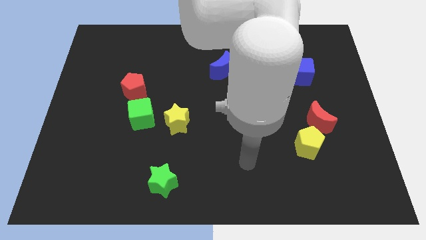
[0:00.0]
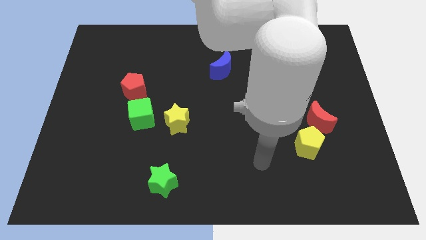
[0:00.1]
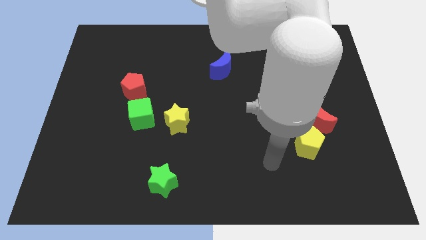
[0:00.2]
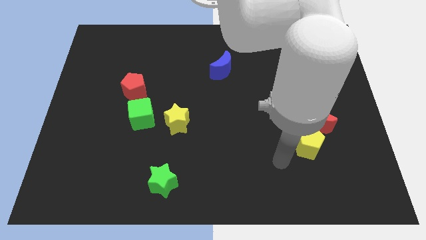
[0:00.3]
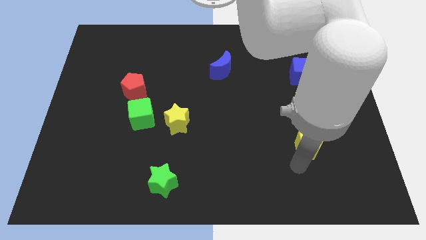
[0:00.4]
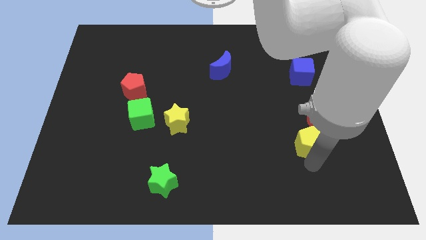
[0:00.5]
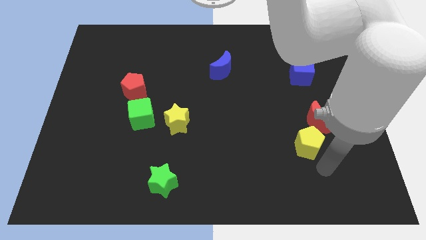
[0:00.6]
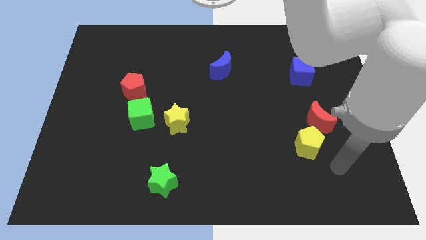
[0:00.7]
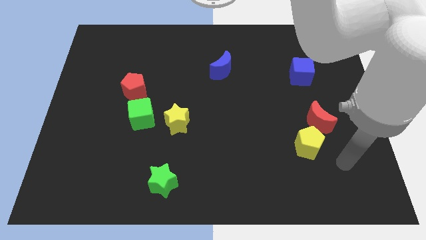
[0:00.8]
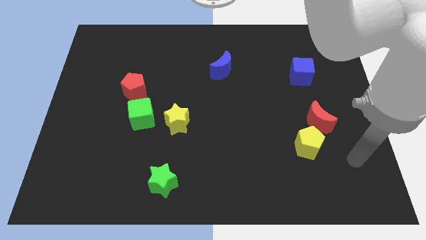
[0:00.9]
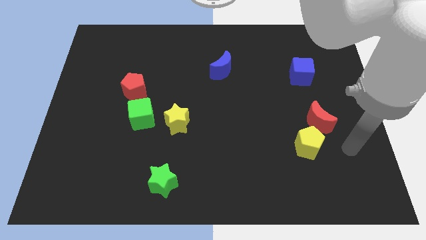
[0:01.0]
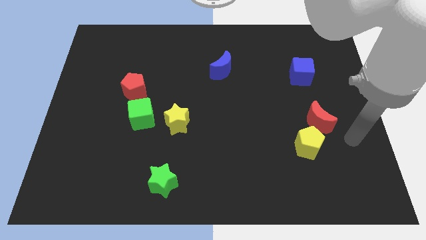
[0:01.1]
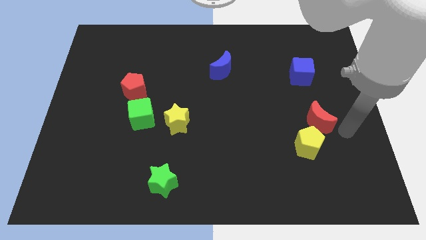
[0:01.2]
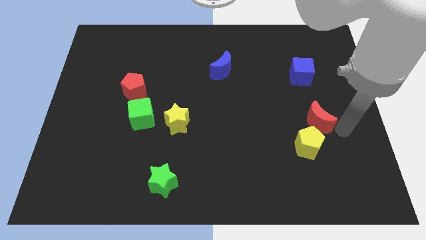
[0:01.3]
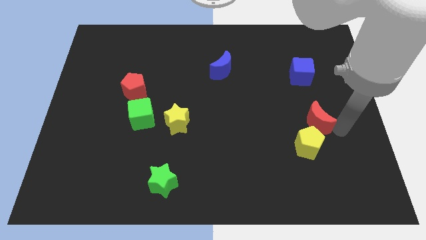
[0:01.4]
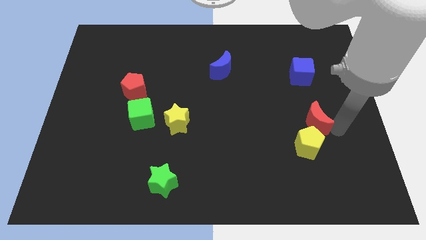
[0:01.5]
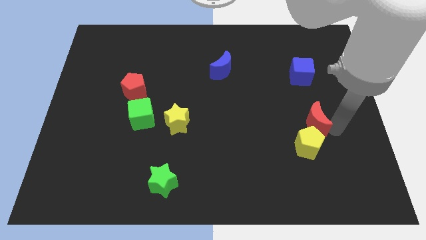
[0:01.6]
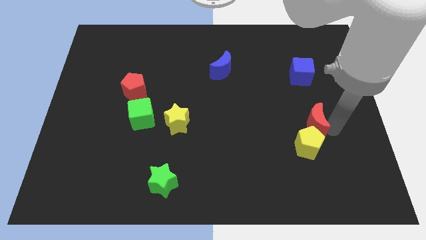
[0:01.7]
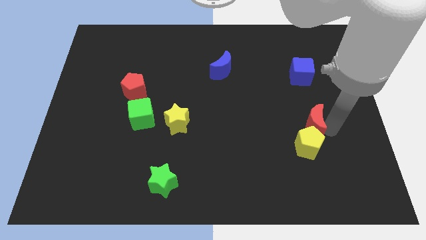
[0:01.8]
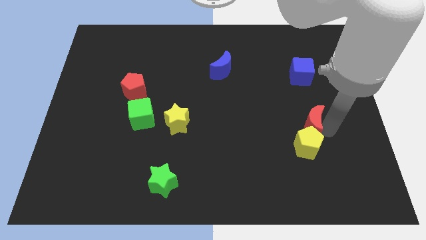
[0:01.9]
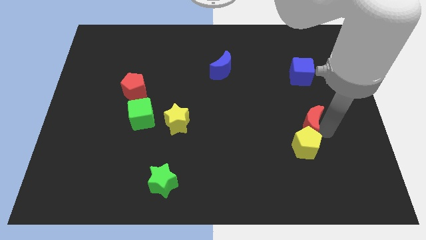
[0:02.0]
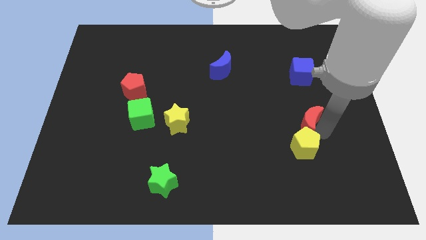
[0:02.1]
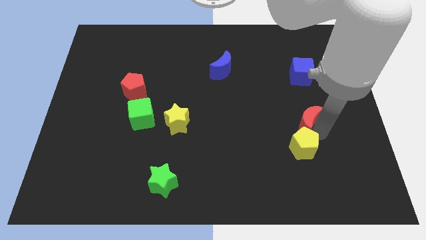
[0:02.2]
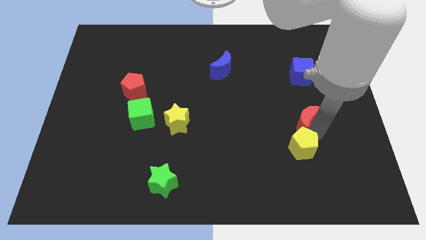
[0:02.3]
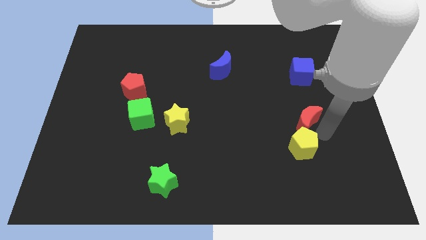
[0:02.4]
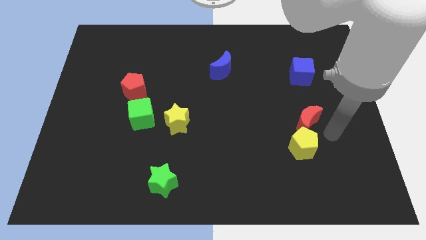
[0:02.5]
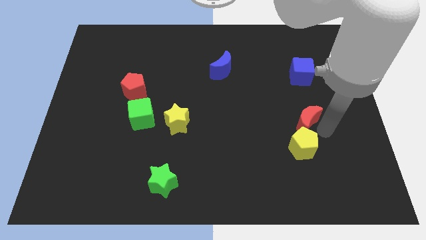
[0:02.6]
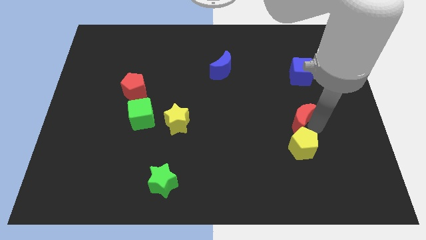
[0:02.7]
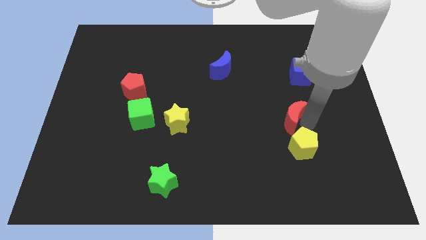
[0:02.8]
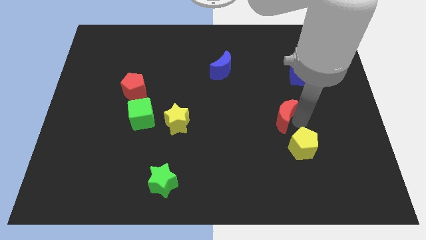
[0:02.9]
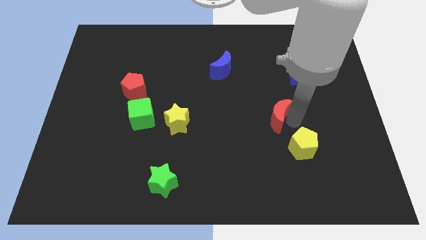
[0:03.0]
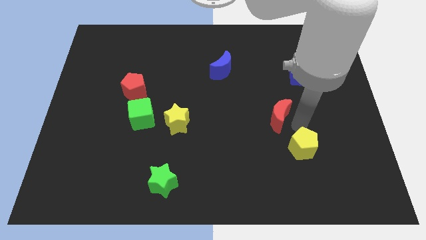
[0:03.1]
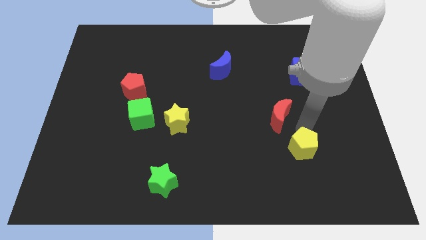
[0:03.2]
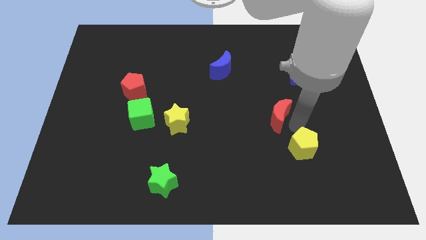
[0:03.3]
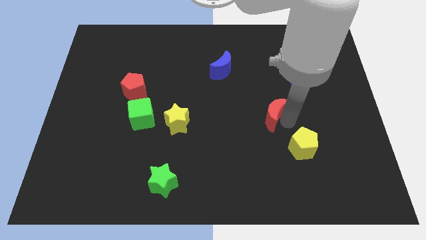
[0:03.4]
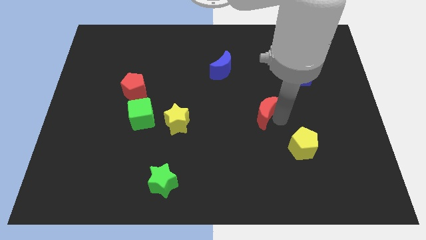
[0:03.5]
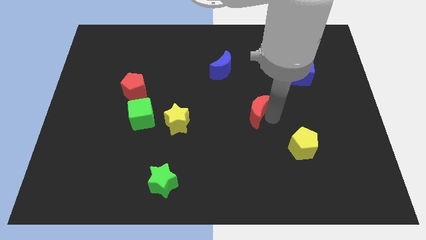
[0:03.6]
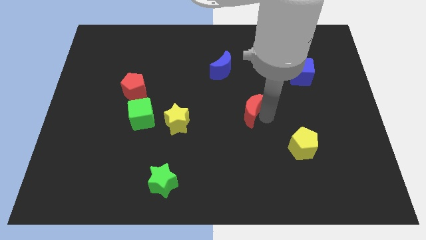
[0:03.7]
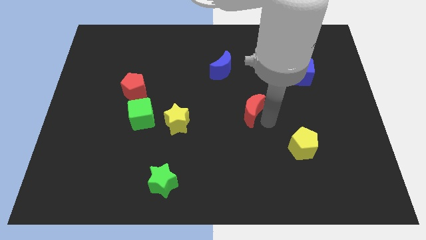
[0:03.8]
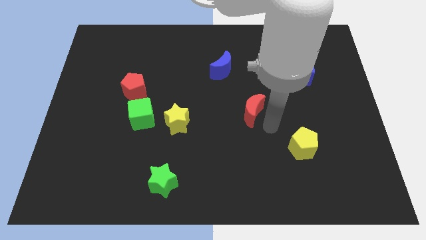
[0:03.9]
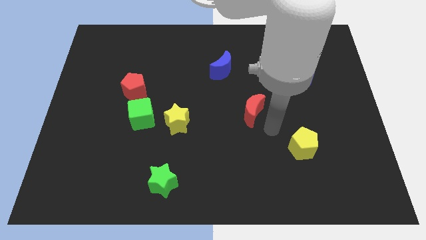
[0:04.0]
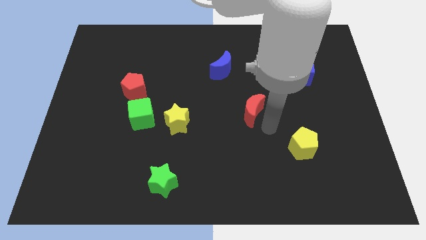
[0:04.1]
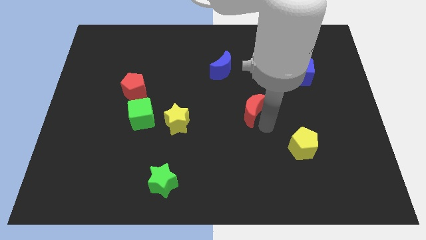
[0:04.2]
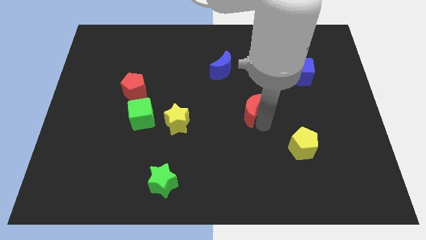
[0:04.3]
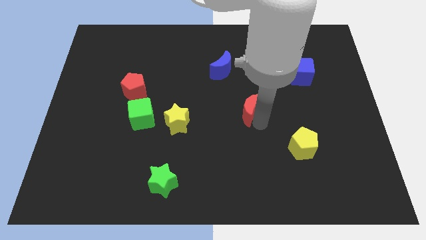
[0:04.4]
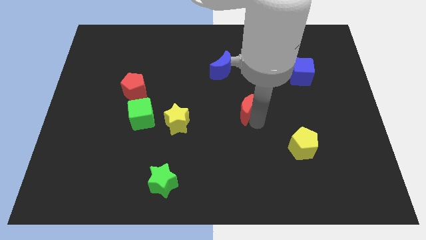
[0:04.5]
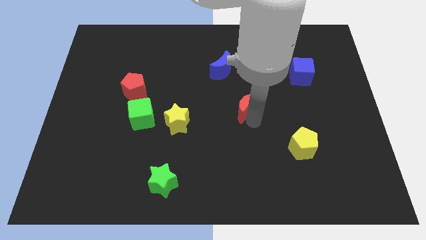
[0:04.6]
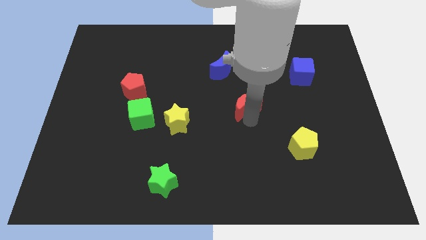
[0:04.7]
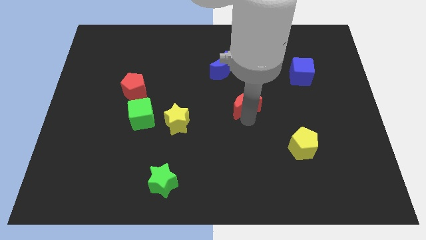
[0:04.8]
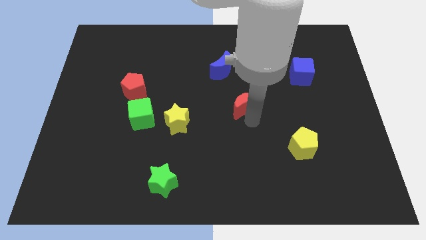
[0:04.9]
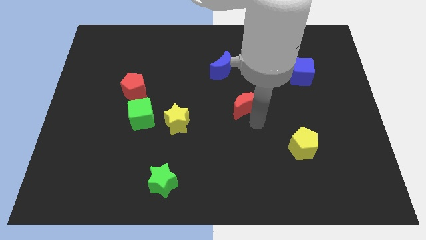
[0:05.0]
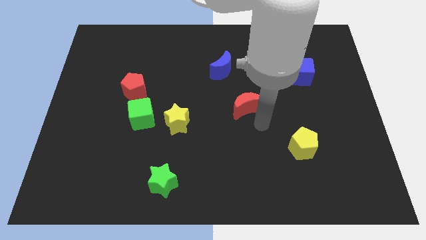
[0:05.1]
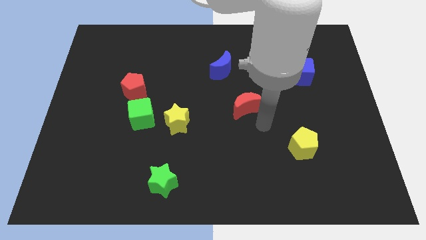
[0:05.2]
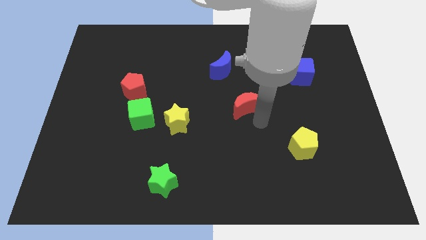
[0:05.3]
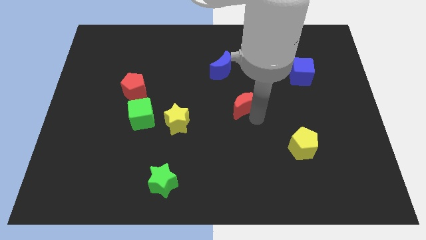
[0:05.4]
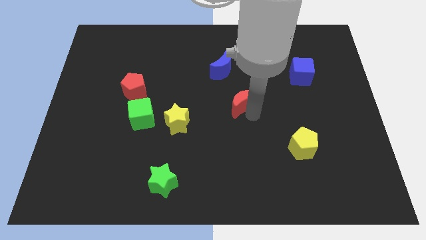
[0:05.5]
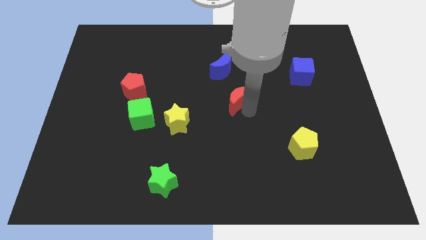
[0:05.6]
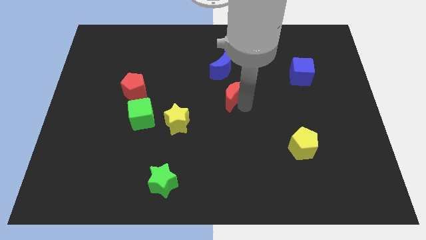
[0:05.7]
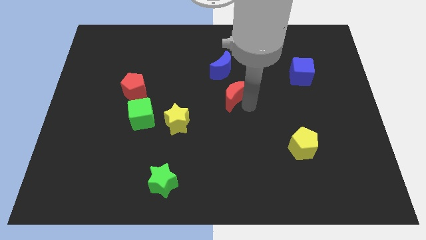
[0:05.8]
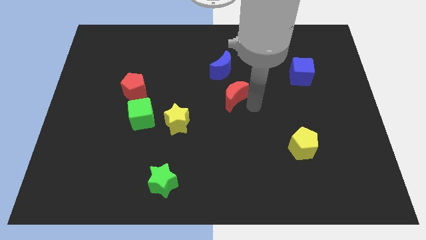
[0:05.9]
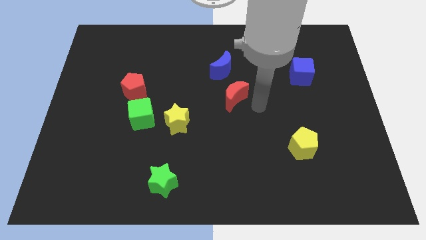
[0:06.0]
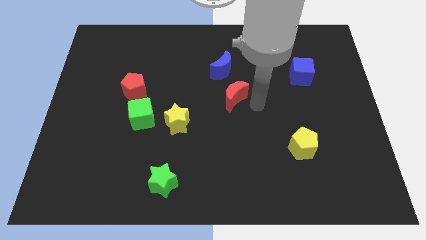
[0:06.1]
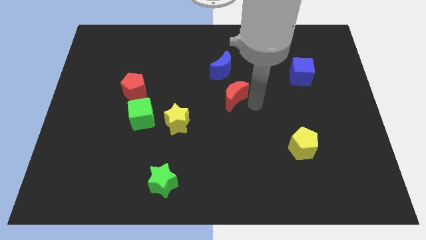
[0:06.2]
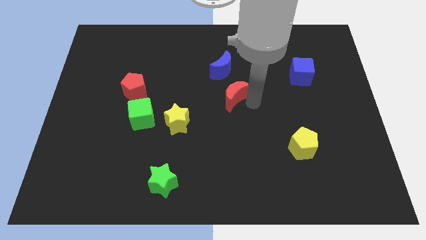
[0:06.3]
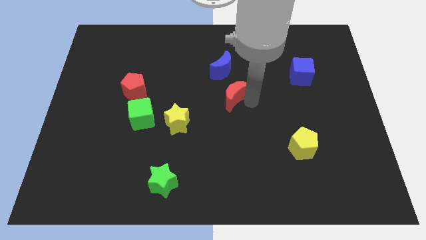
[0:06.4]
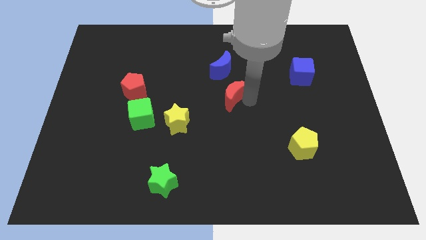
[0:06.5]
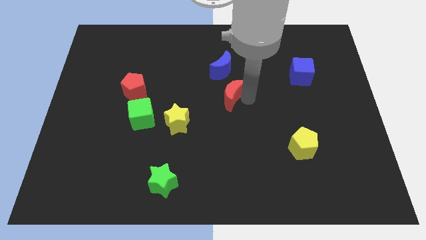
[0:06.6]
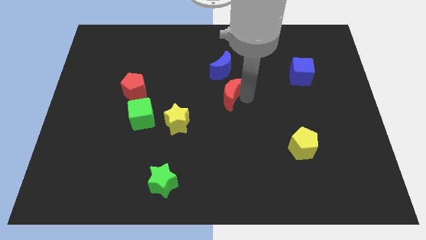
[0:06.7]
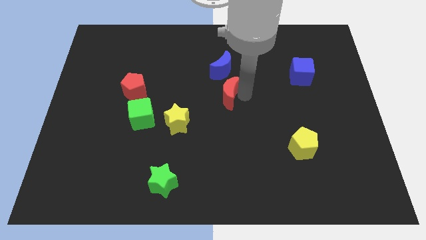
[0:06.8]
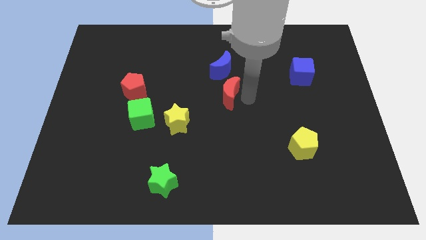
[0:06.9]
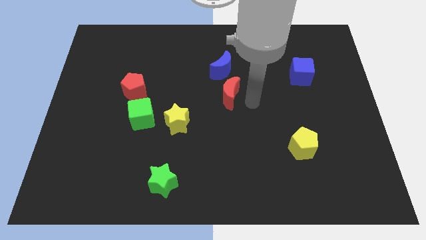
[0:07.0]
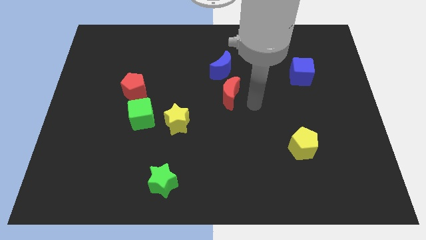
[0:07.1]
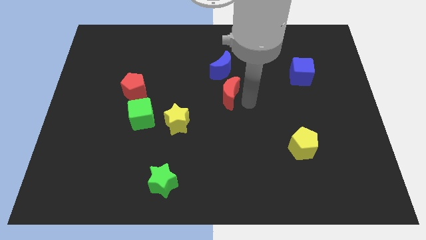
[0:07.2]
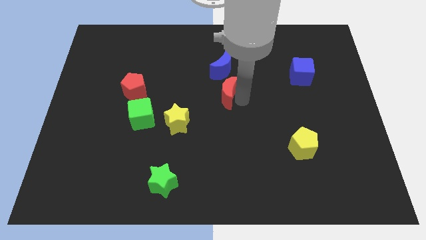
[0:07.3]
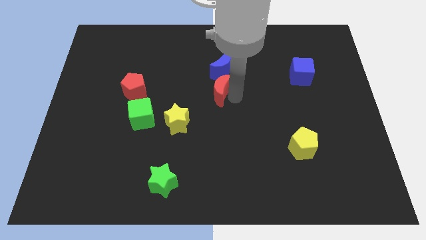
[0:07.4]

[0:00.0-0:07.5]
push the red moon diagonally down and to the left of the blue moon
